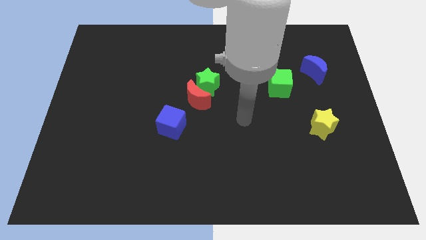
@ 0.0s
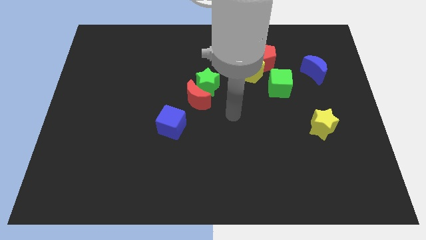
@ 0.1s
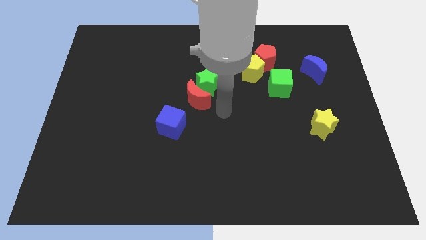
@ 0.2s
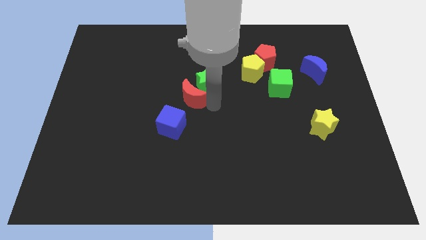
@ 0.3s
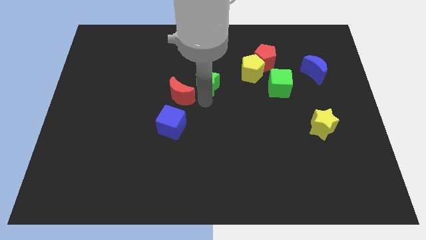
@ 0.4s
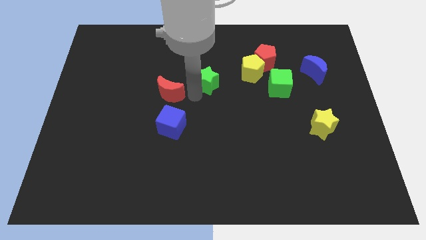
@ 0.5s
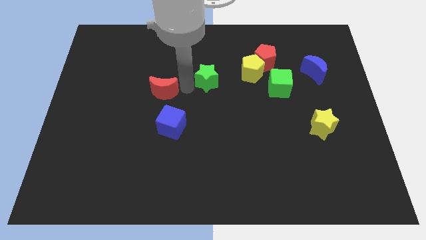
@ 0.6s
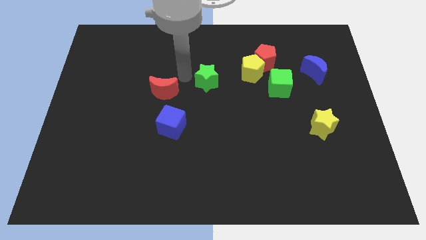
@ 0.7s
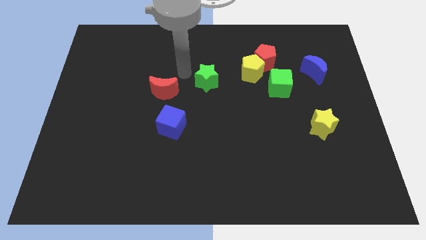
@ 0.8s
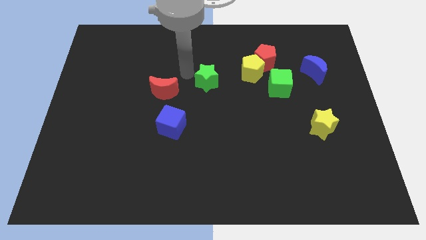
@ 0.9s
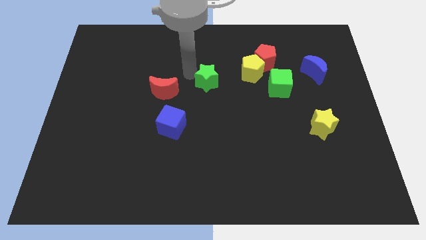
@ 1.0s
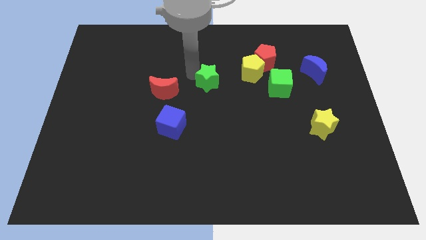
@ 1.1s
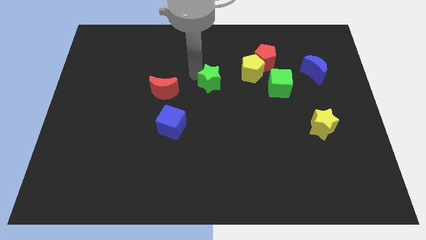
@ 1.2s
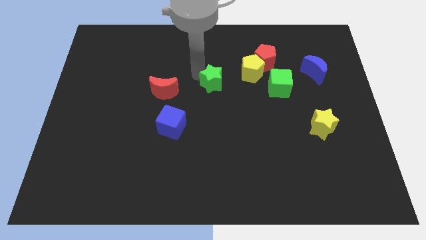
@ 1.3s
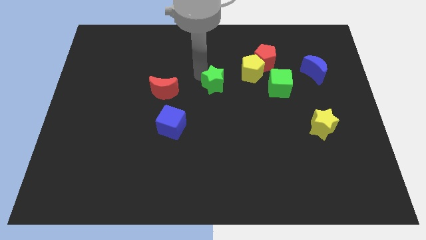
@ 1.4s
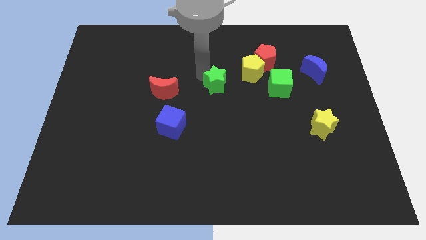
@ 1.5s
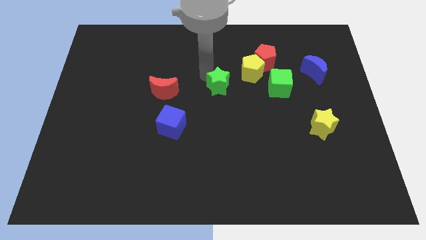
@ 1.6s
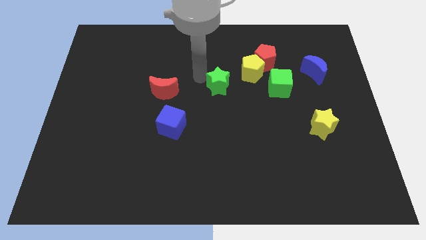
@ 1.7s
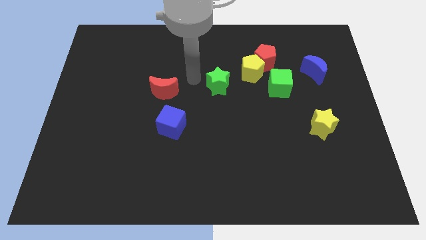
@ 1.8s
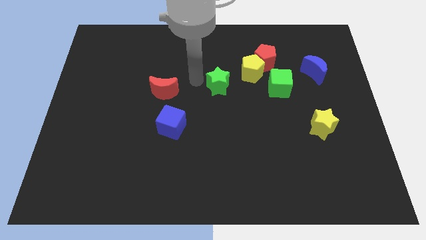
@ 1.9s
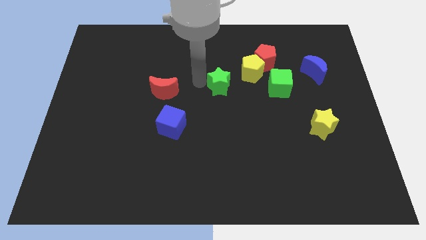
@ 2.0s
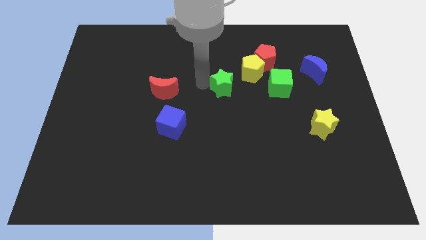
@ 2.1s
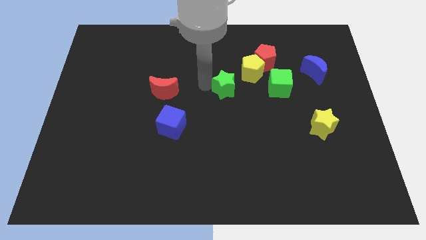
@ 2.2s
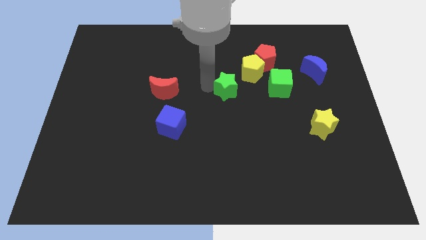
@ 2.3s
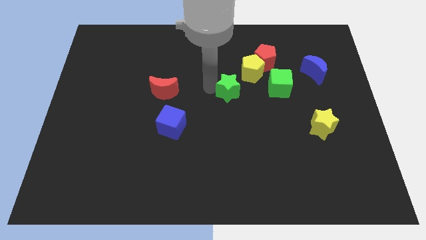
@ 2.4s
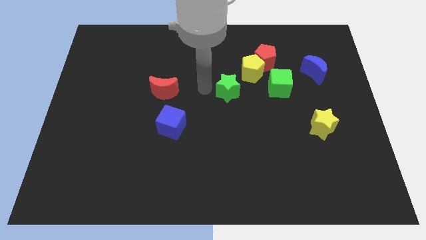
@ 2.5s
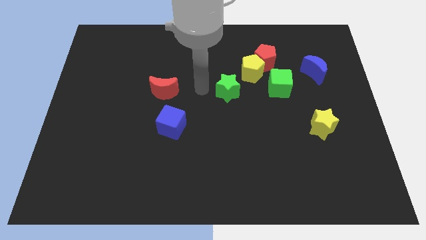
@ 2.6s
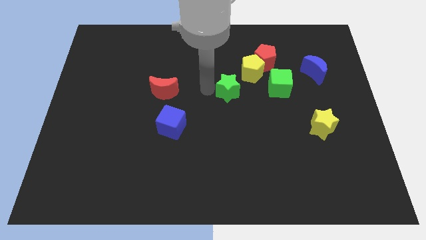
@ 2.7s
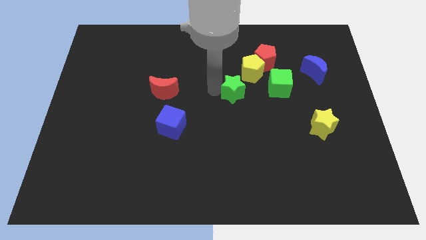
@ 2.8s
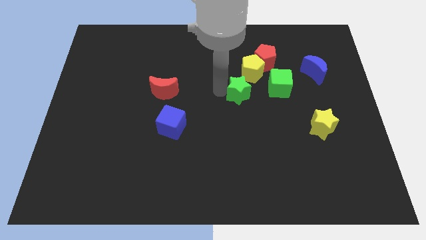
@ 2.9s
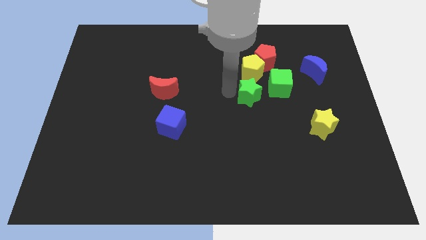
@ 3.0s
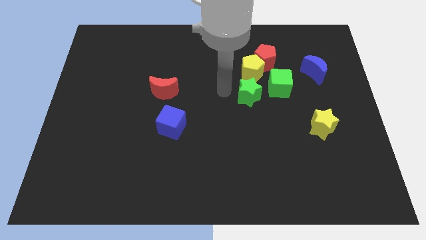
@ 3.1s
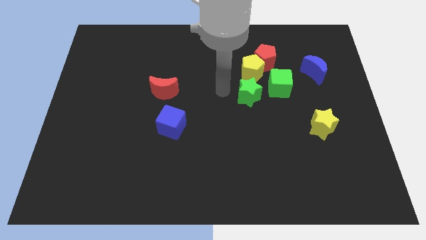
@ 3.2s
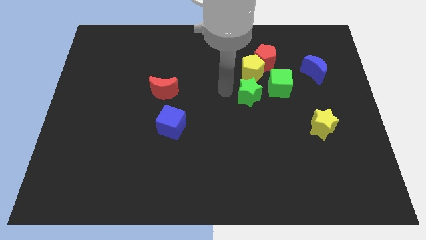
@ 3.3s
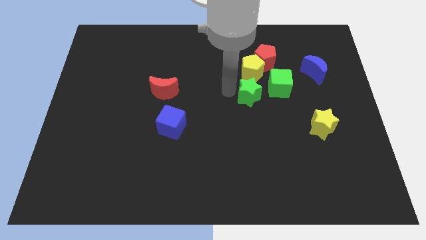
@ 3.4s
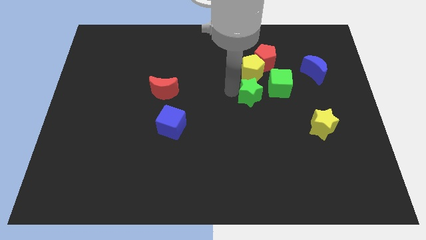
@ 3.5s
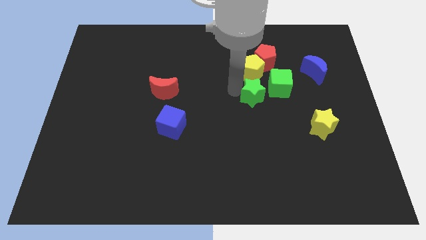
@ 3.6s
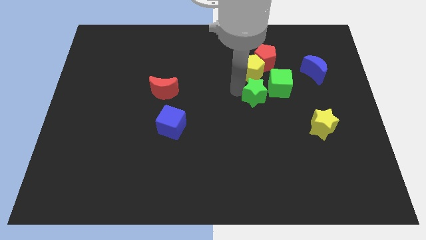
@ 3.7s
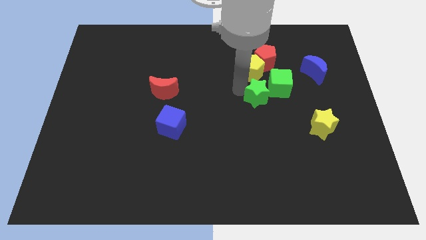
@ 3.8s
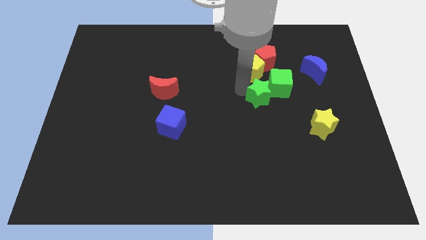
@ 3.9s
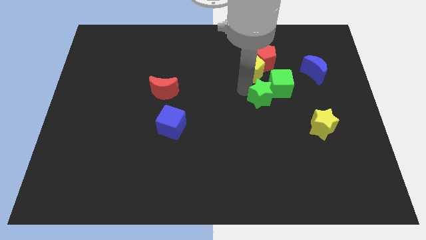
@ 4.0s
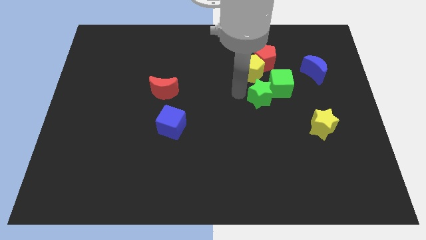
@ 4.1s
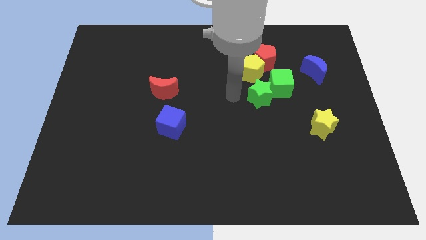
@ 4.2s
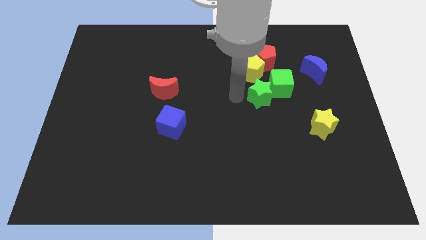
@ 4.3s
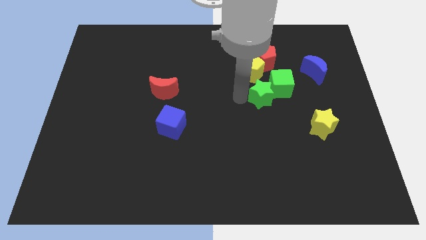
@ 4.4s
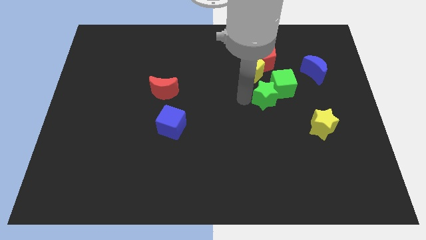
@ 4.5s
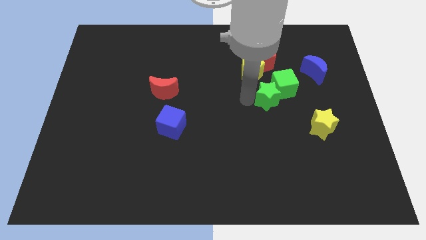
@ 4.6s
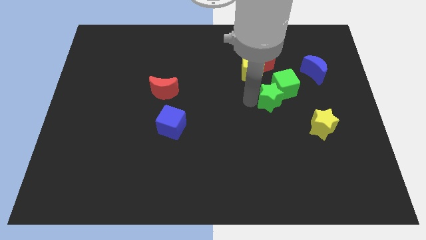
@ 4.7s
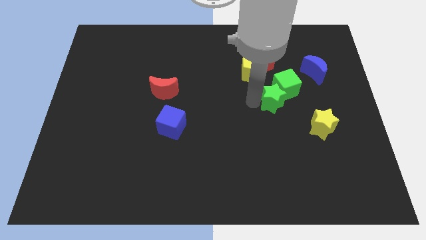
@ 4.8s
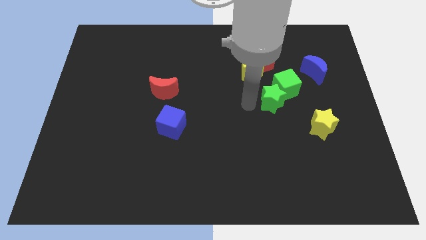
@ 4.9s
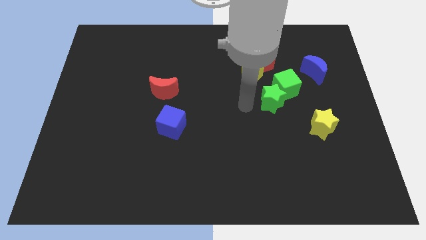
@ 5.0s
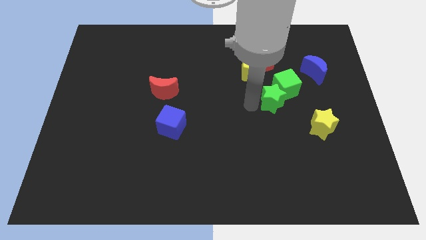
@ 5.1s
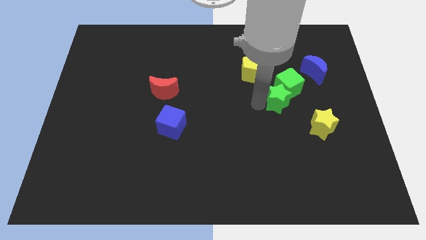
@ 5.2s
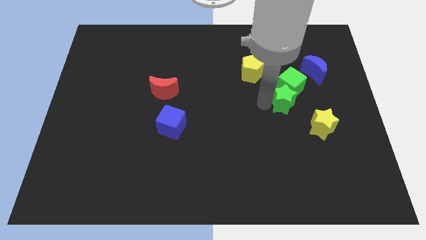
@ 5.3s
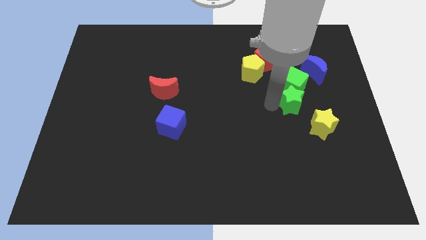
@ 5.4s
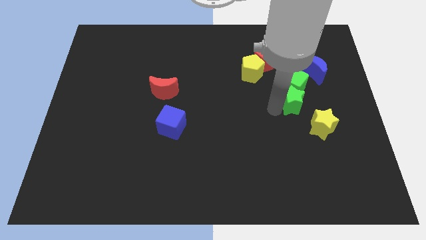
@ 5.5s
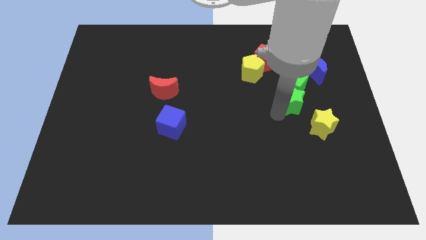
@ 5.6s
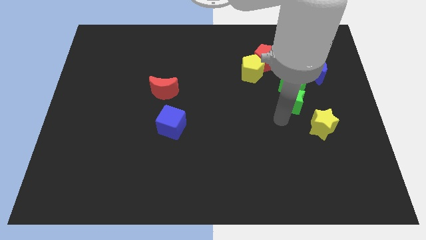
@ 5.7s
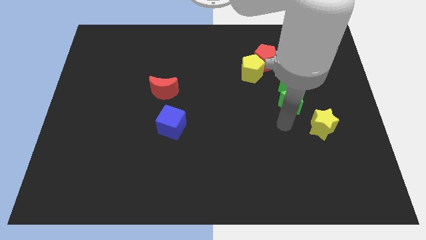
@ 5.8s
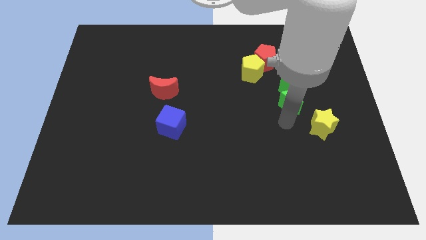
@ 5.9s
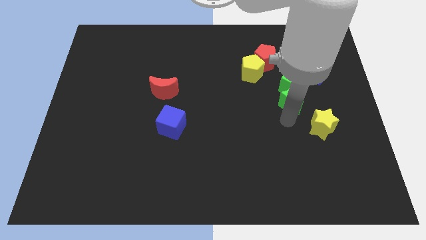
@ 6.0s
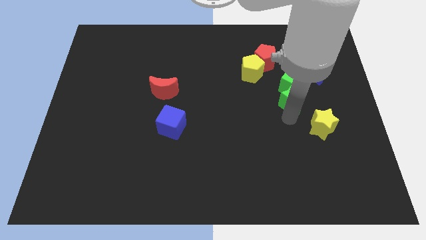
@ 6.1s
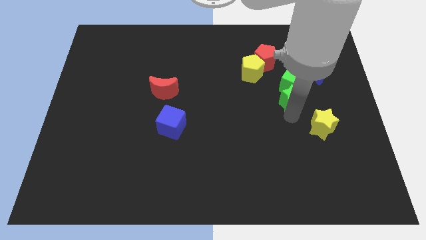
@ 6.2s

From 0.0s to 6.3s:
move the green star diagonally down and to the left of the blue moon

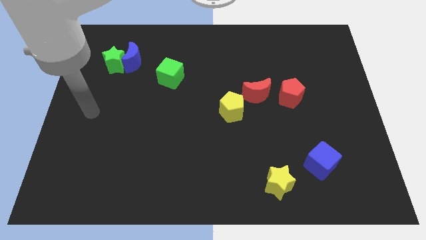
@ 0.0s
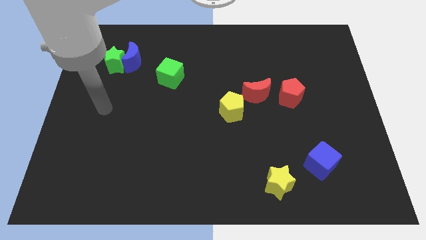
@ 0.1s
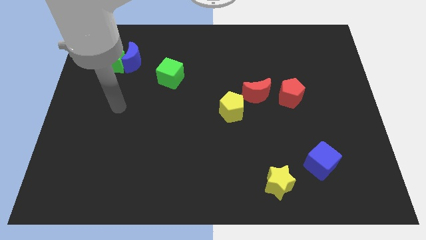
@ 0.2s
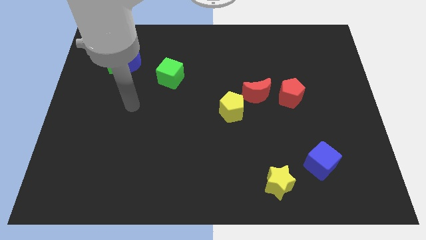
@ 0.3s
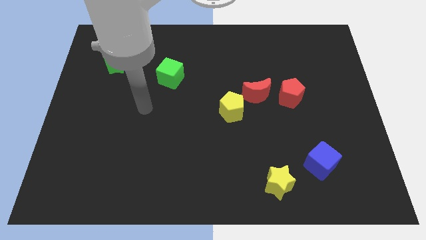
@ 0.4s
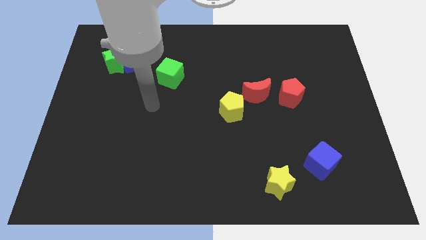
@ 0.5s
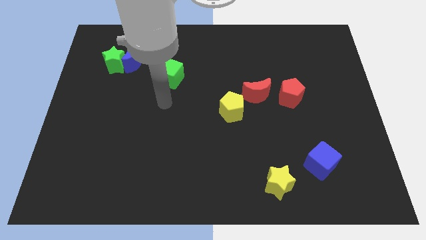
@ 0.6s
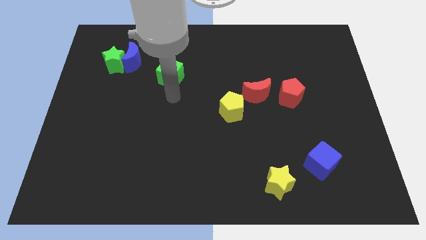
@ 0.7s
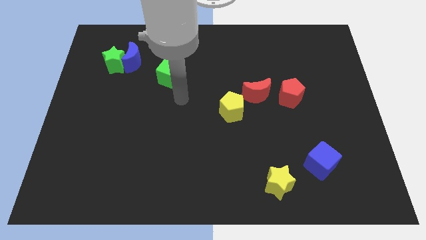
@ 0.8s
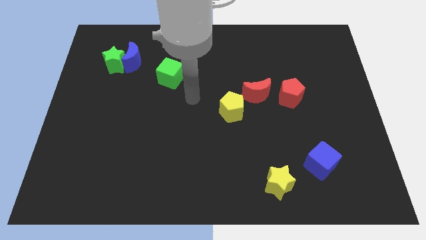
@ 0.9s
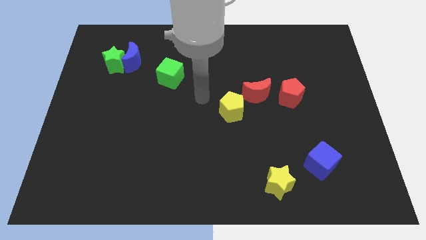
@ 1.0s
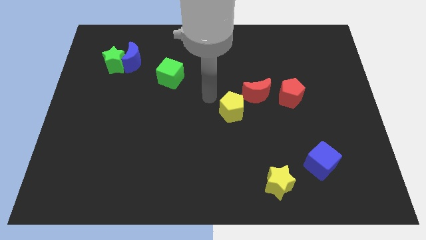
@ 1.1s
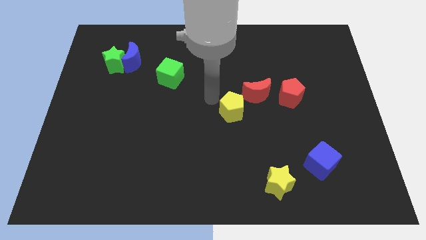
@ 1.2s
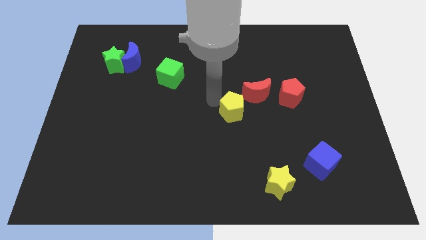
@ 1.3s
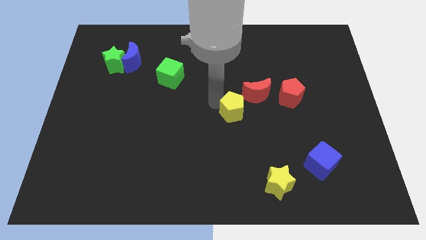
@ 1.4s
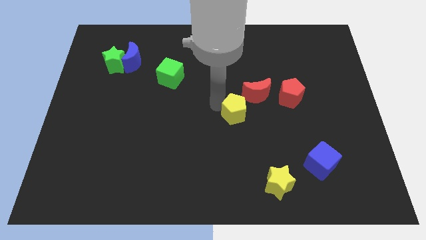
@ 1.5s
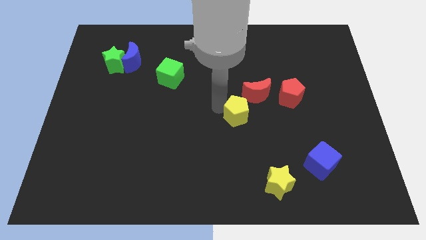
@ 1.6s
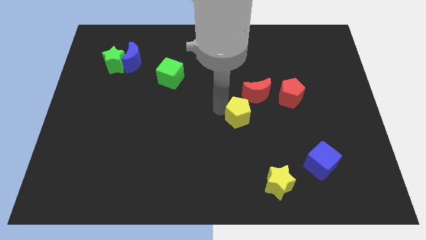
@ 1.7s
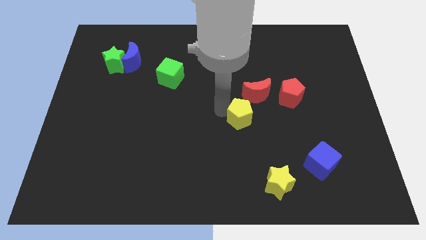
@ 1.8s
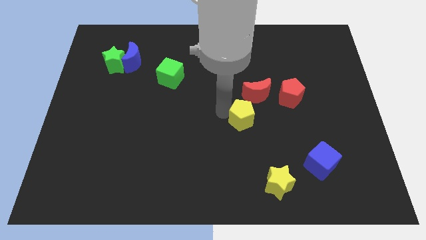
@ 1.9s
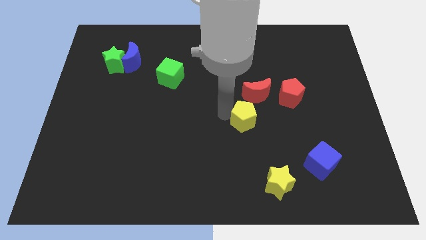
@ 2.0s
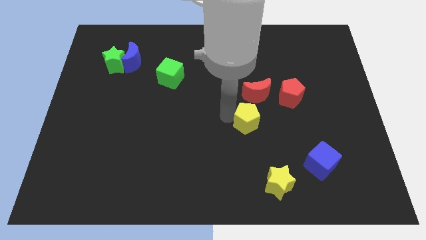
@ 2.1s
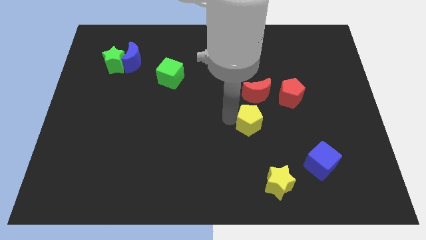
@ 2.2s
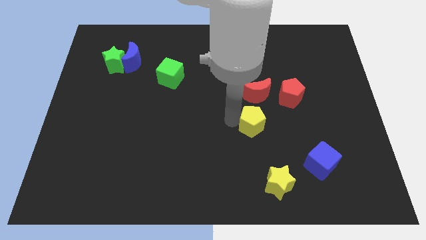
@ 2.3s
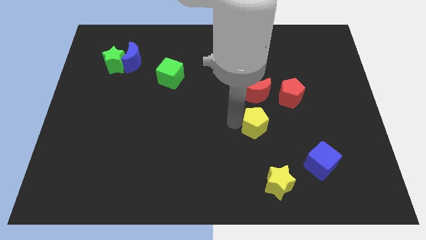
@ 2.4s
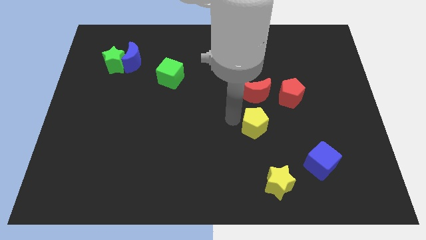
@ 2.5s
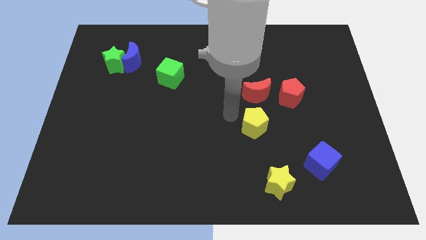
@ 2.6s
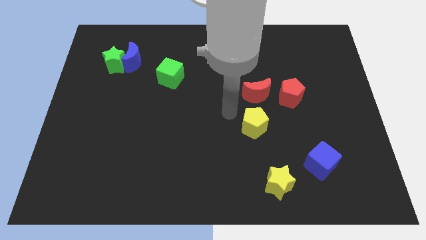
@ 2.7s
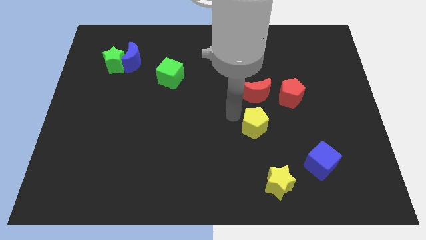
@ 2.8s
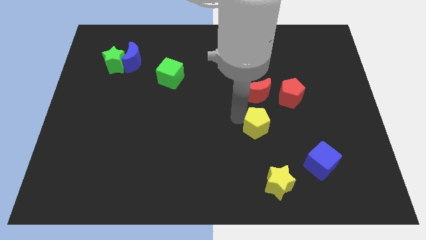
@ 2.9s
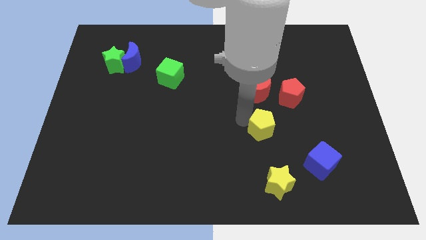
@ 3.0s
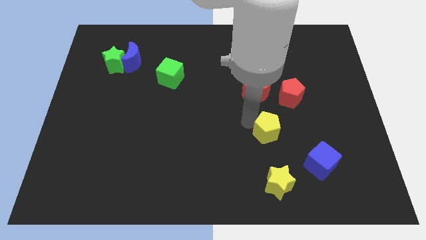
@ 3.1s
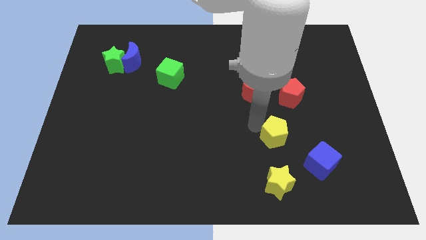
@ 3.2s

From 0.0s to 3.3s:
slide the yellow pentagon to the top left of the blue cube
